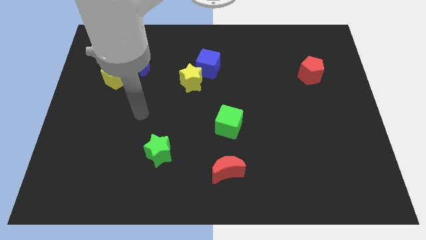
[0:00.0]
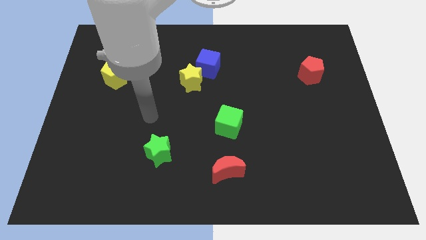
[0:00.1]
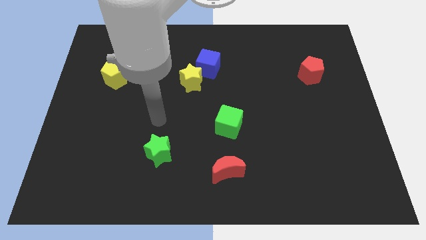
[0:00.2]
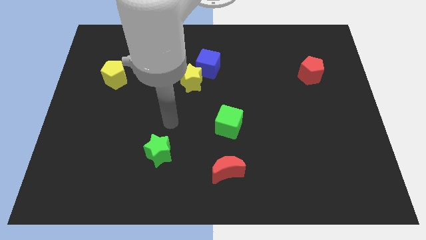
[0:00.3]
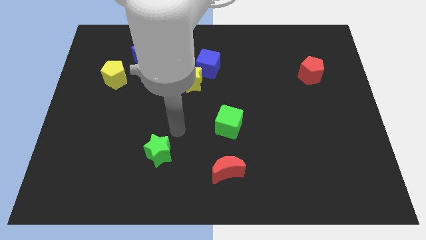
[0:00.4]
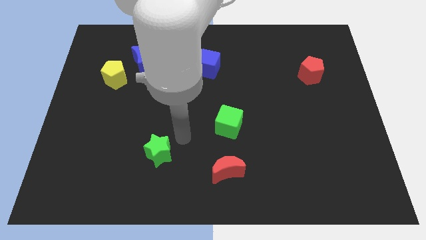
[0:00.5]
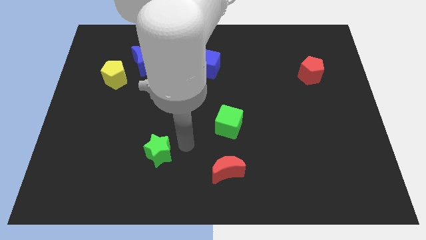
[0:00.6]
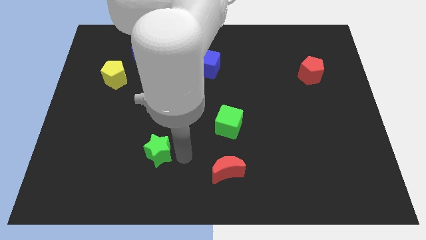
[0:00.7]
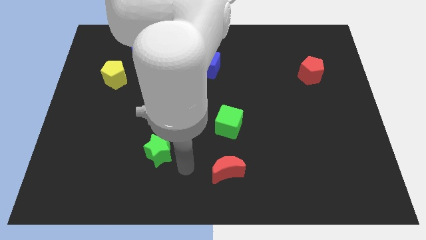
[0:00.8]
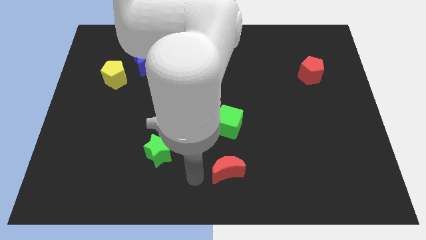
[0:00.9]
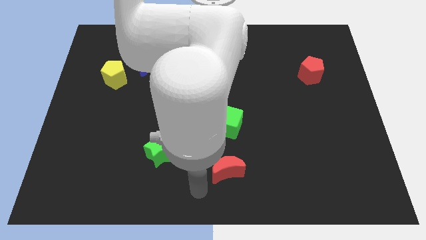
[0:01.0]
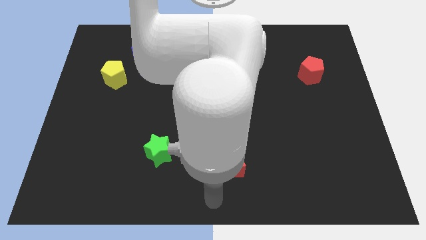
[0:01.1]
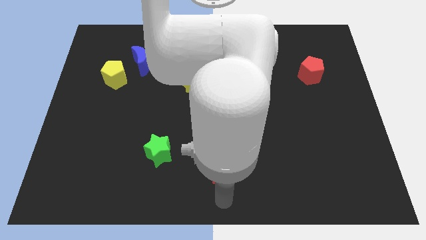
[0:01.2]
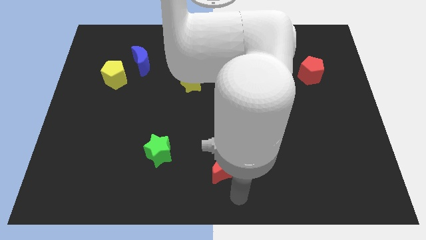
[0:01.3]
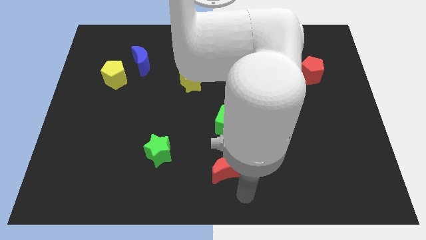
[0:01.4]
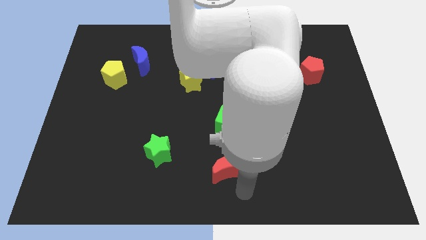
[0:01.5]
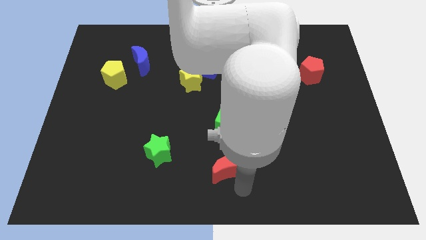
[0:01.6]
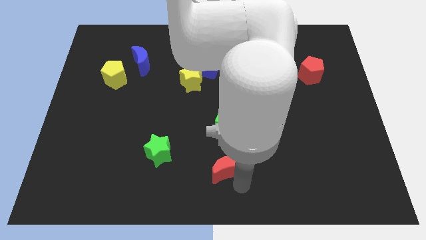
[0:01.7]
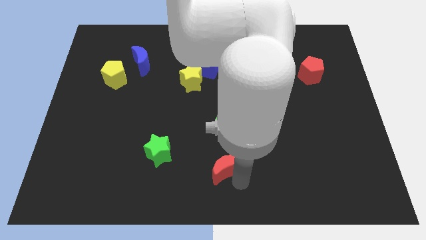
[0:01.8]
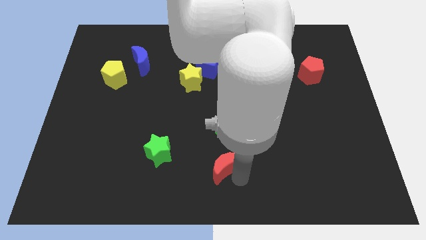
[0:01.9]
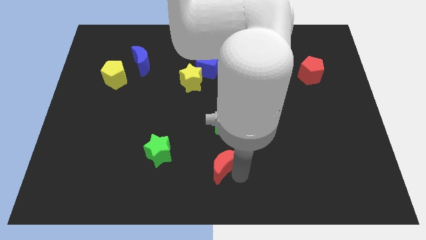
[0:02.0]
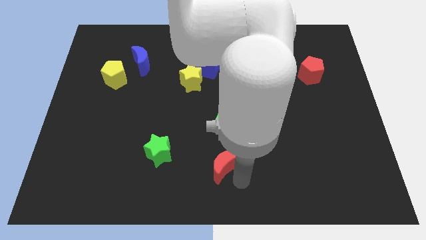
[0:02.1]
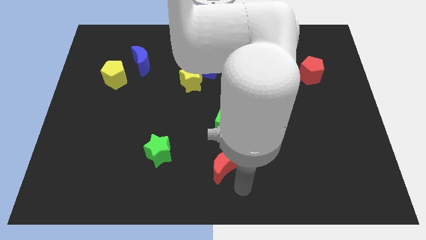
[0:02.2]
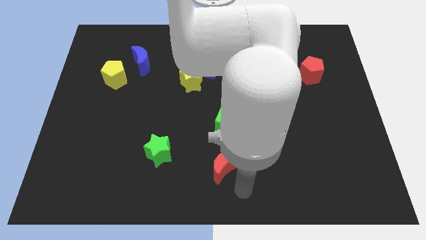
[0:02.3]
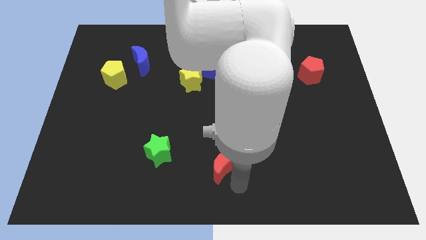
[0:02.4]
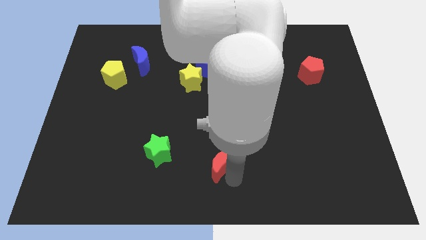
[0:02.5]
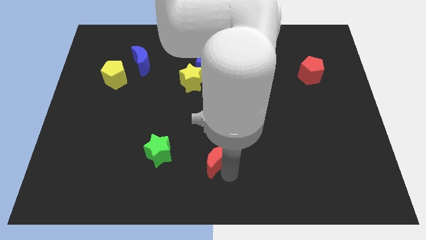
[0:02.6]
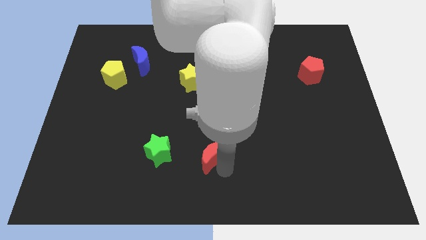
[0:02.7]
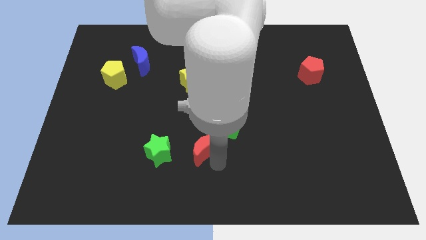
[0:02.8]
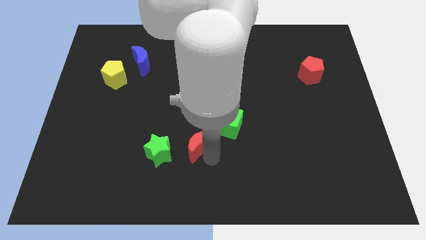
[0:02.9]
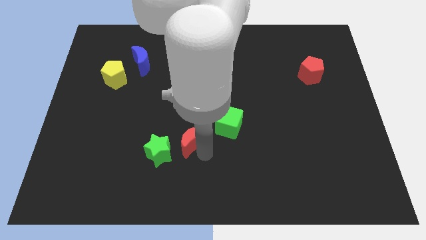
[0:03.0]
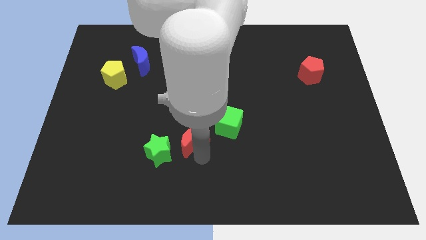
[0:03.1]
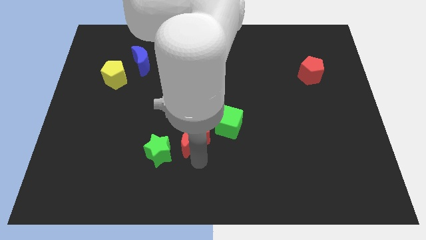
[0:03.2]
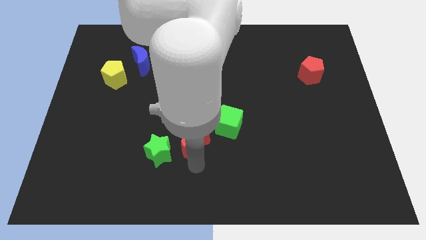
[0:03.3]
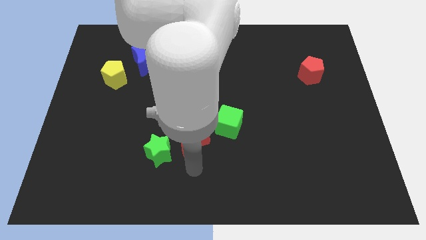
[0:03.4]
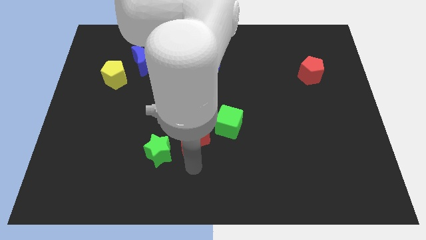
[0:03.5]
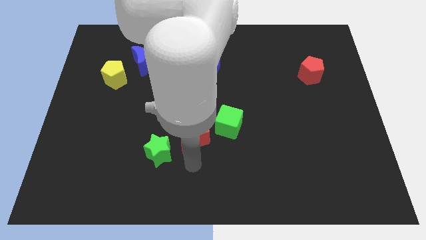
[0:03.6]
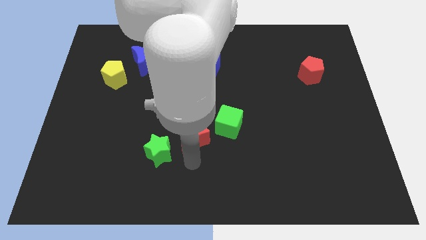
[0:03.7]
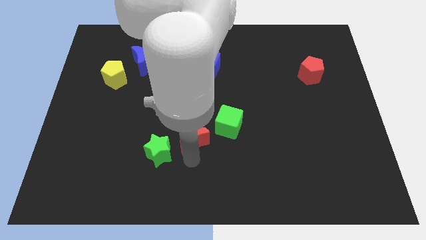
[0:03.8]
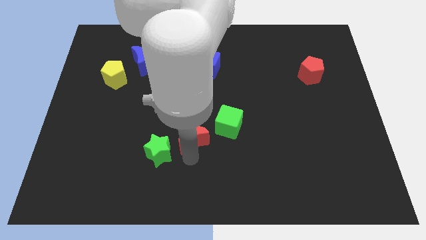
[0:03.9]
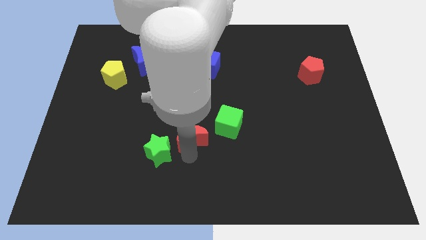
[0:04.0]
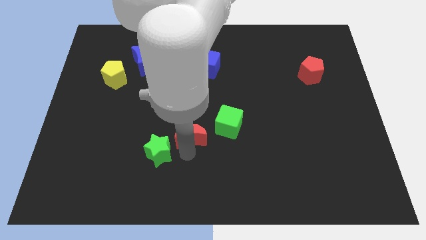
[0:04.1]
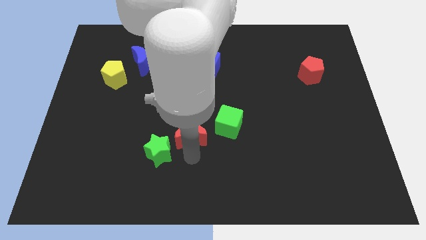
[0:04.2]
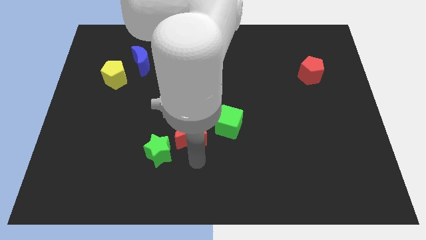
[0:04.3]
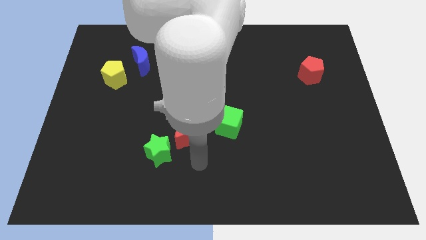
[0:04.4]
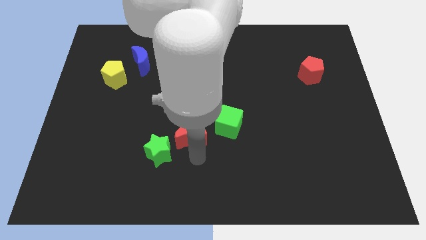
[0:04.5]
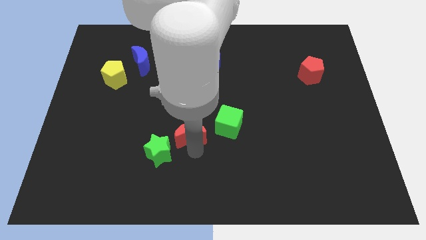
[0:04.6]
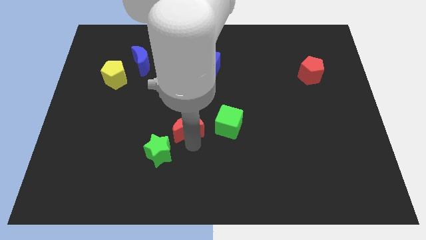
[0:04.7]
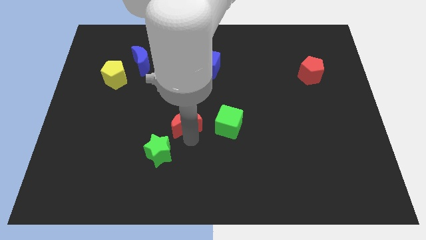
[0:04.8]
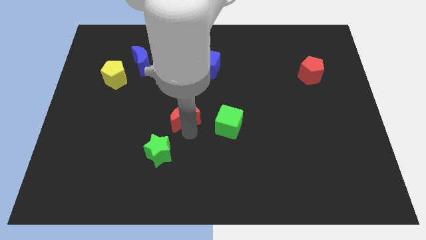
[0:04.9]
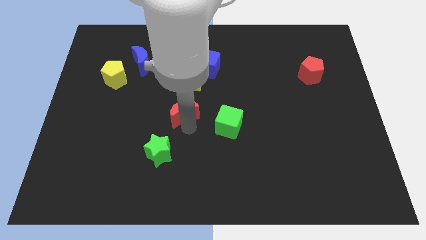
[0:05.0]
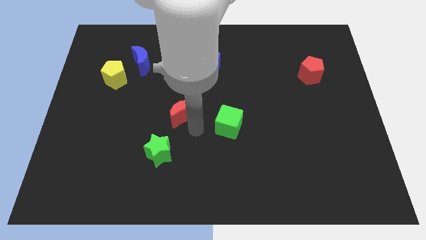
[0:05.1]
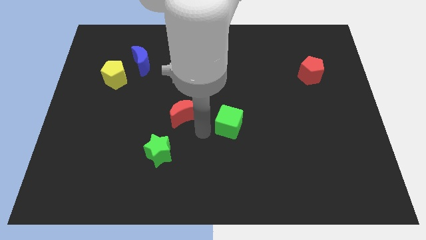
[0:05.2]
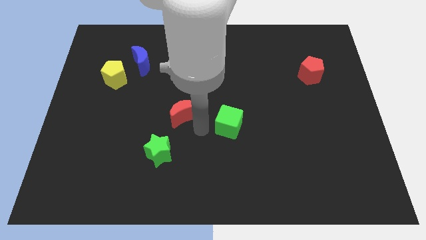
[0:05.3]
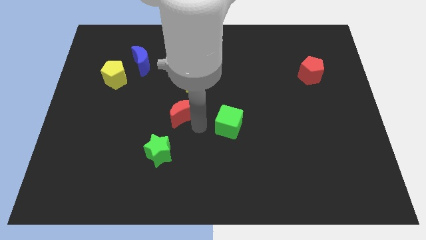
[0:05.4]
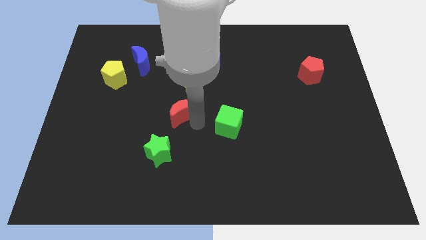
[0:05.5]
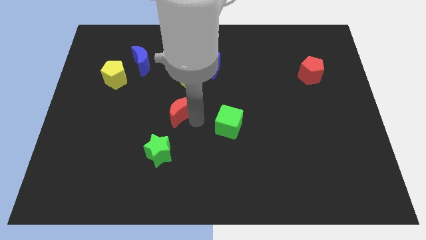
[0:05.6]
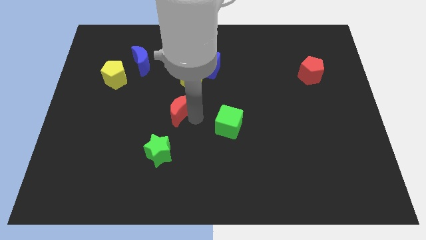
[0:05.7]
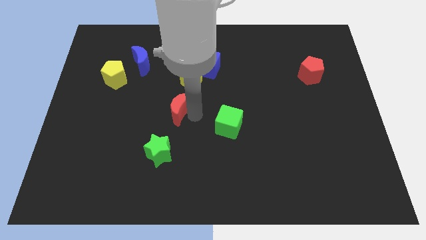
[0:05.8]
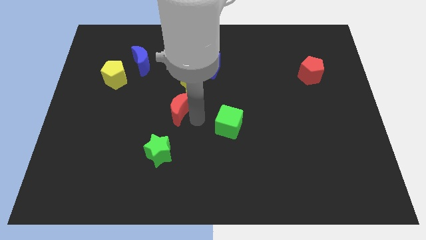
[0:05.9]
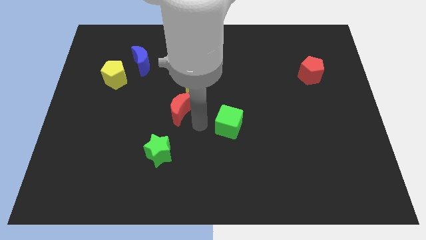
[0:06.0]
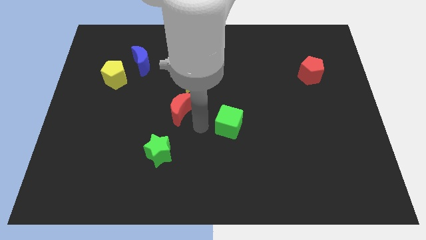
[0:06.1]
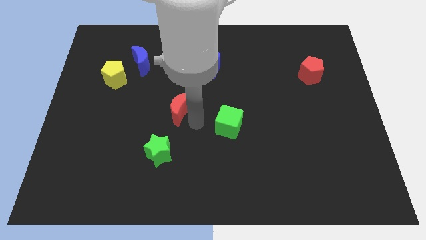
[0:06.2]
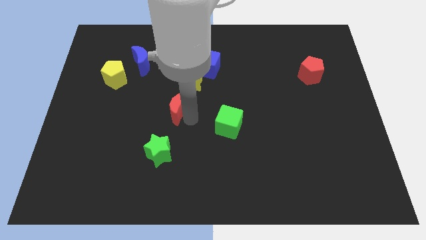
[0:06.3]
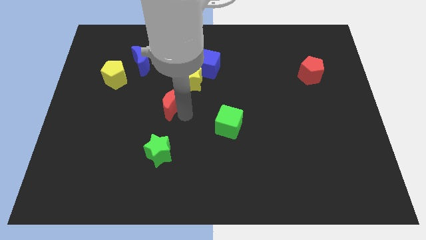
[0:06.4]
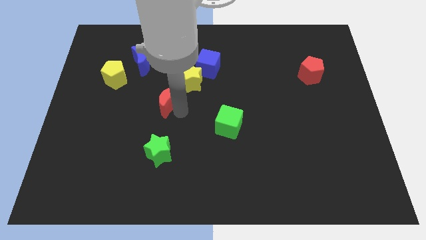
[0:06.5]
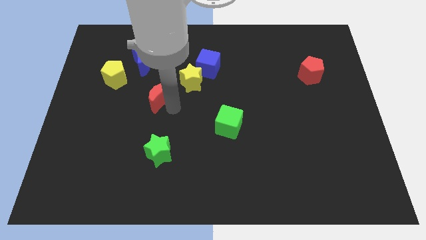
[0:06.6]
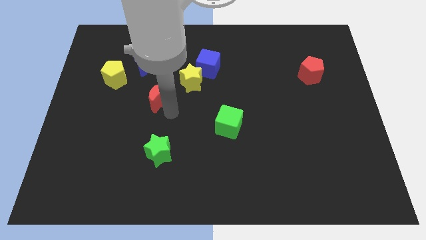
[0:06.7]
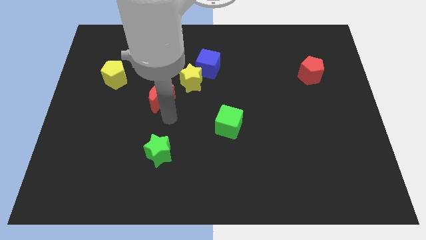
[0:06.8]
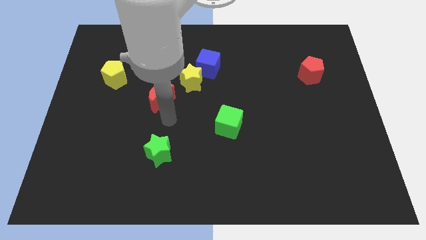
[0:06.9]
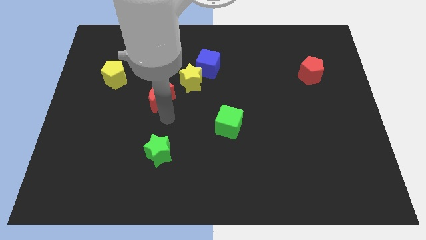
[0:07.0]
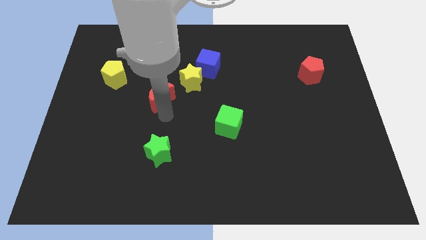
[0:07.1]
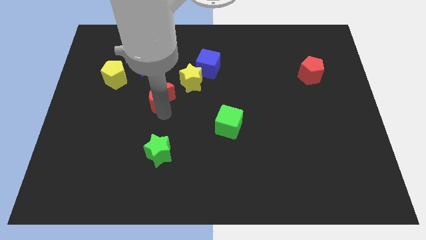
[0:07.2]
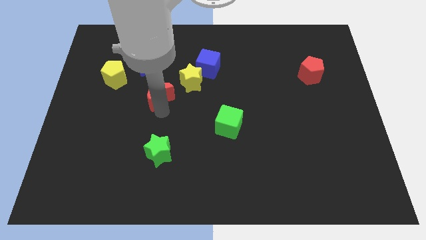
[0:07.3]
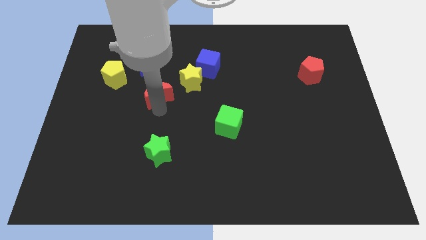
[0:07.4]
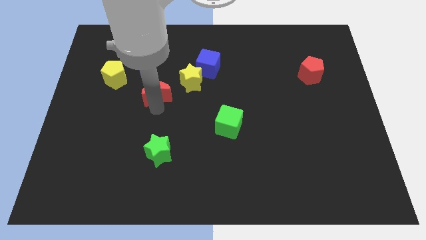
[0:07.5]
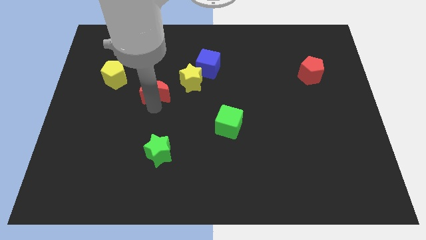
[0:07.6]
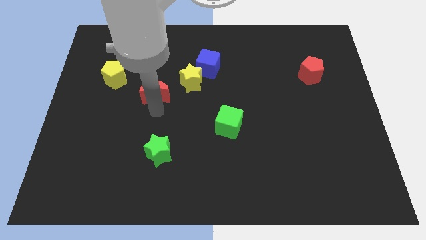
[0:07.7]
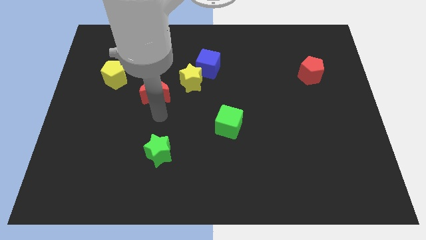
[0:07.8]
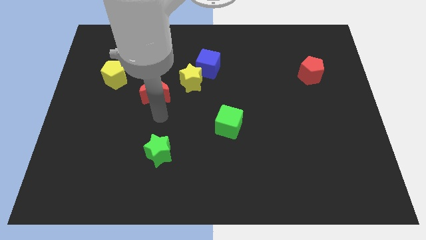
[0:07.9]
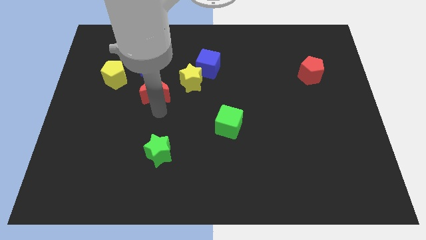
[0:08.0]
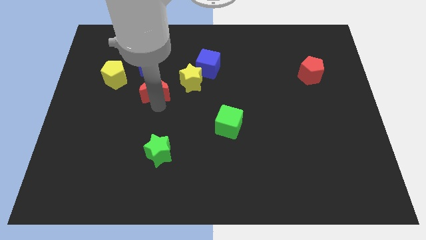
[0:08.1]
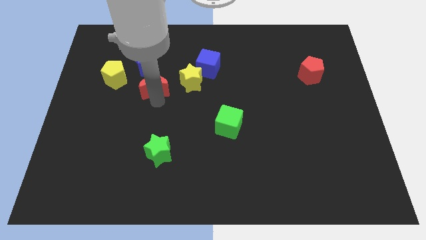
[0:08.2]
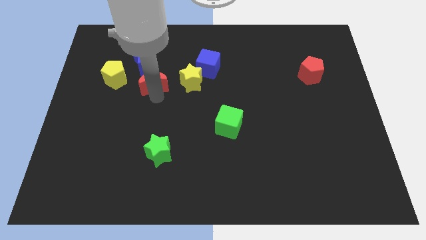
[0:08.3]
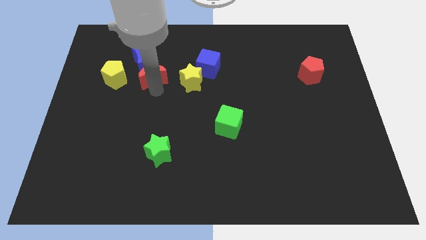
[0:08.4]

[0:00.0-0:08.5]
move the red moon to the blue moon
